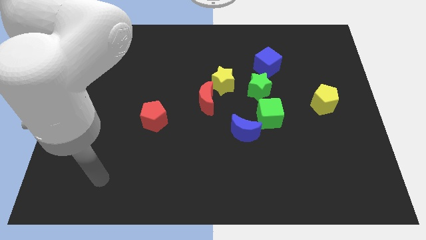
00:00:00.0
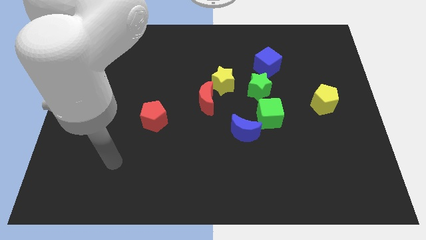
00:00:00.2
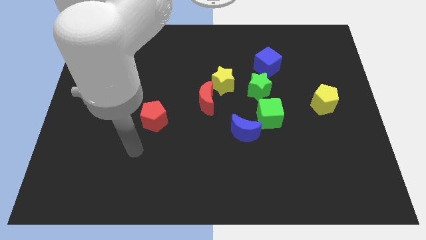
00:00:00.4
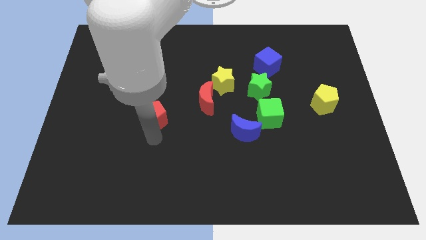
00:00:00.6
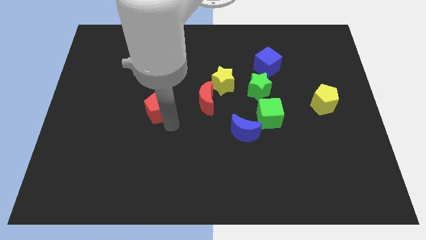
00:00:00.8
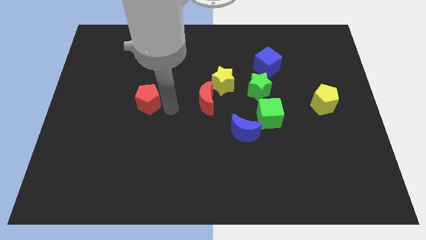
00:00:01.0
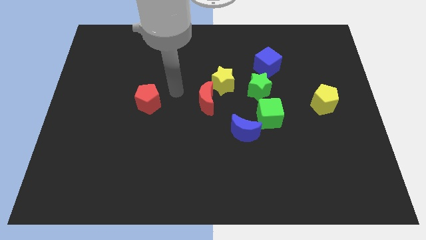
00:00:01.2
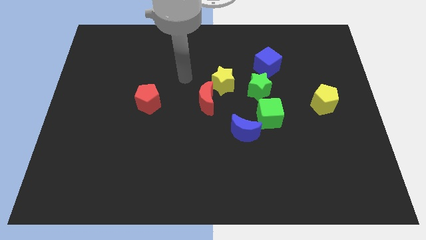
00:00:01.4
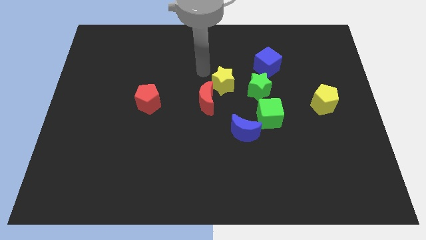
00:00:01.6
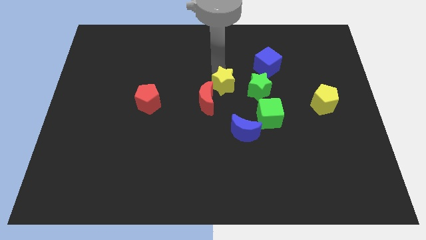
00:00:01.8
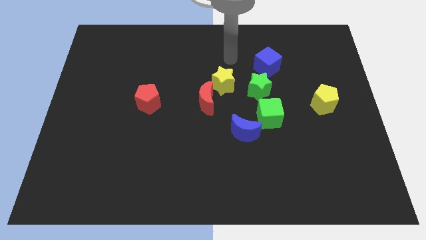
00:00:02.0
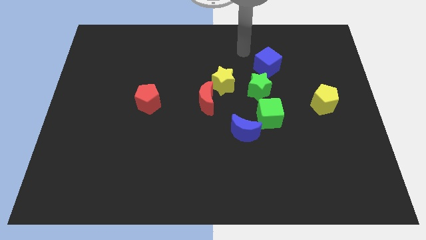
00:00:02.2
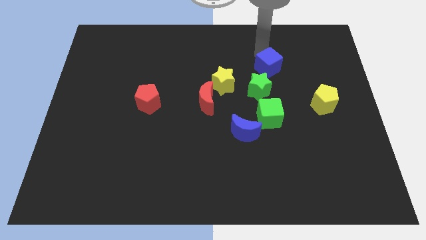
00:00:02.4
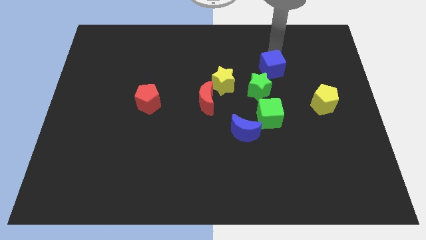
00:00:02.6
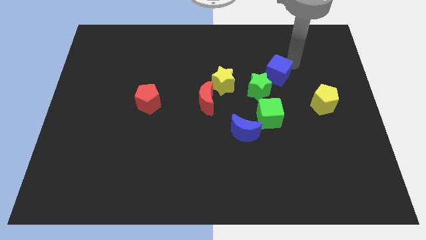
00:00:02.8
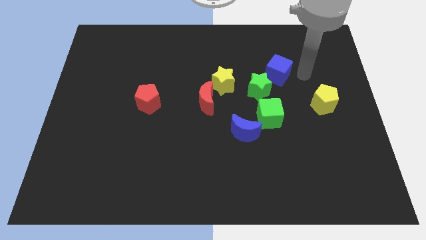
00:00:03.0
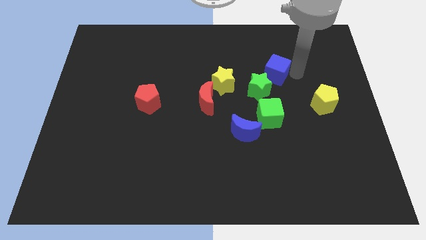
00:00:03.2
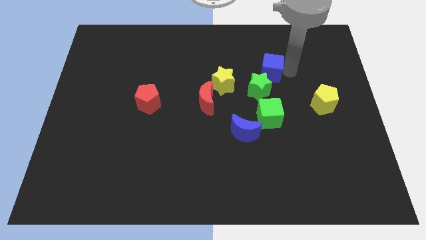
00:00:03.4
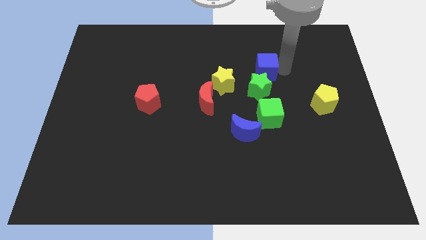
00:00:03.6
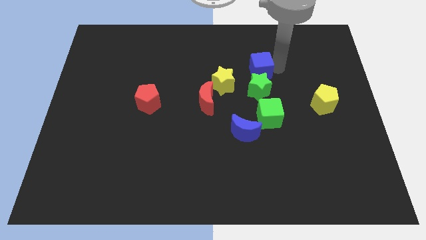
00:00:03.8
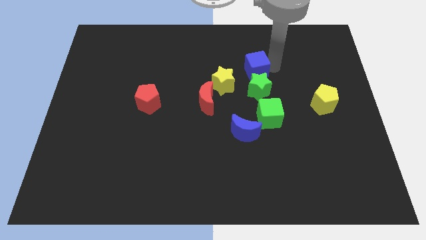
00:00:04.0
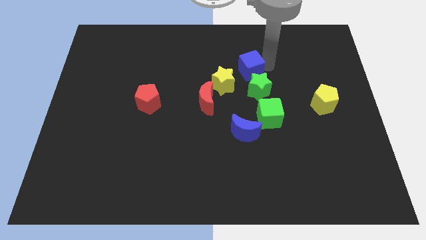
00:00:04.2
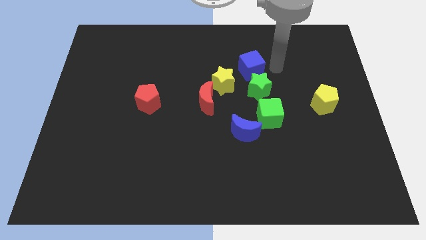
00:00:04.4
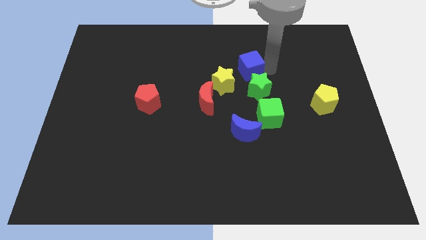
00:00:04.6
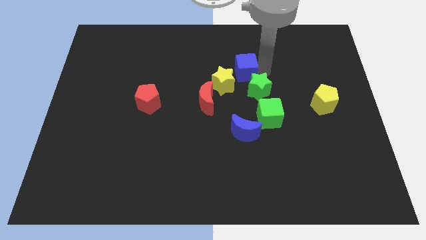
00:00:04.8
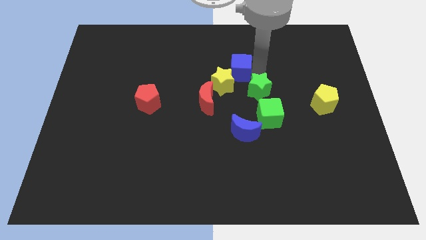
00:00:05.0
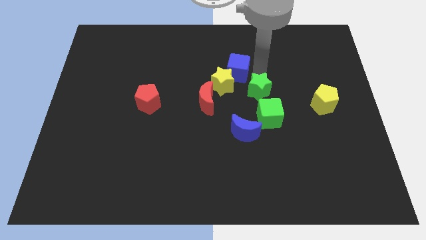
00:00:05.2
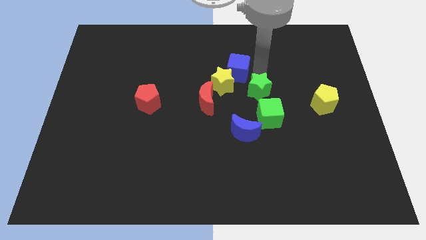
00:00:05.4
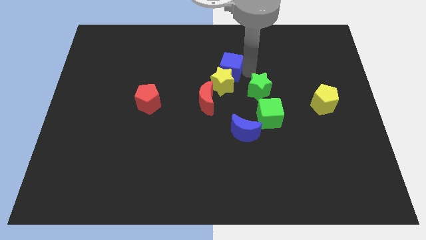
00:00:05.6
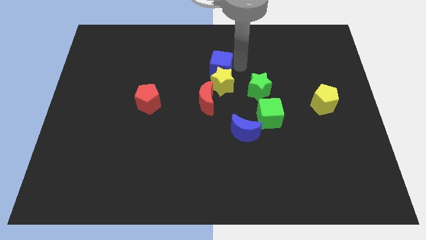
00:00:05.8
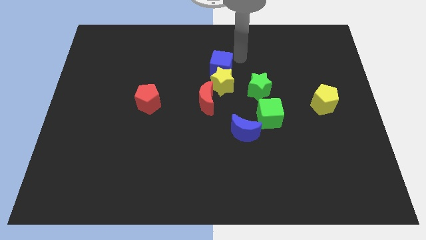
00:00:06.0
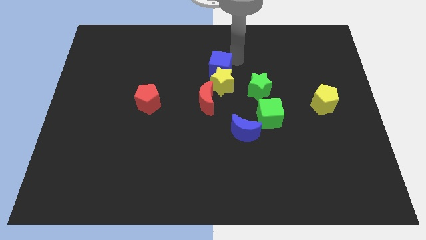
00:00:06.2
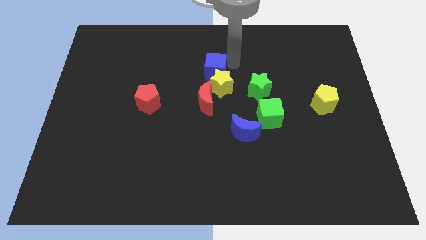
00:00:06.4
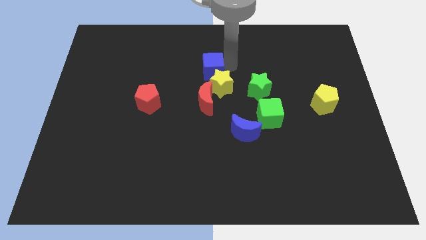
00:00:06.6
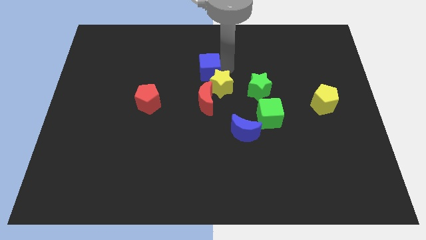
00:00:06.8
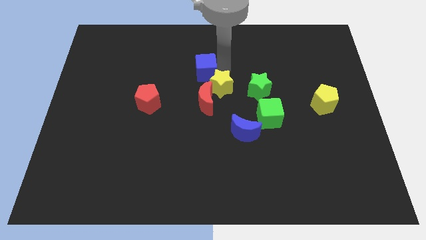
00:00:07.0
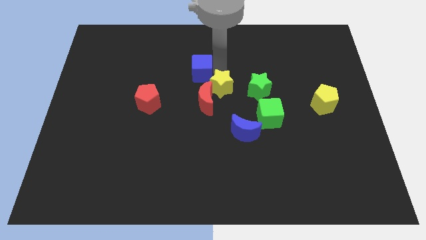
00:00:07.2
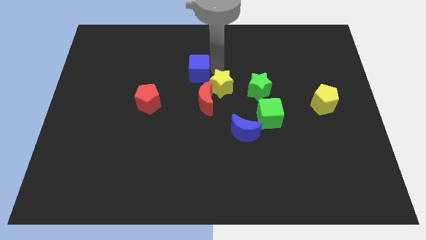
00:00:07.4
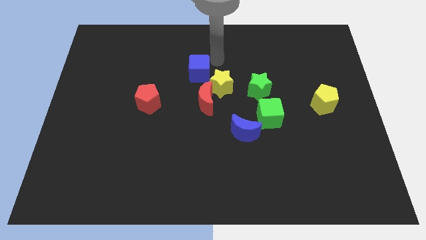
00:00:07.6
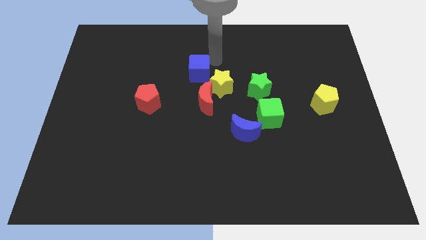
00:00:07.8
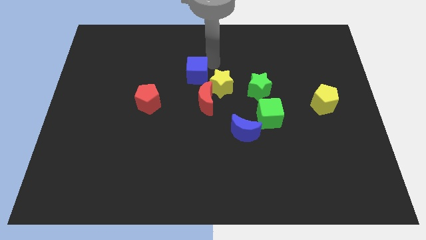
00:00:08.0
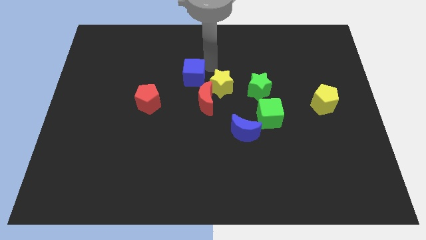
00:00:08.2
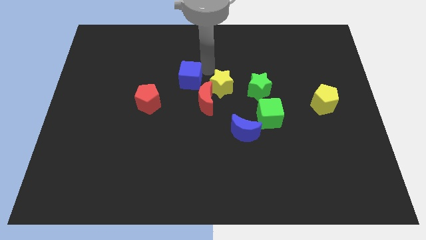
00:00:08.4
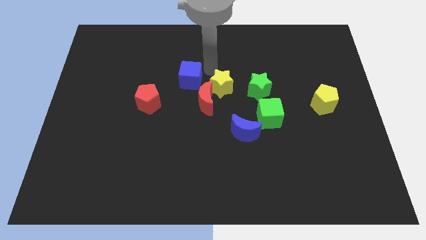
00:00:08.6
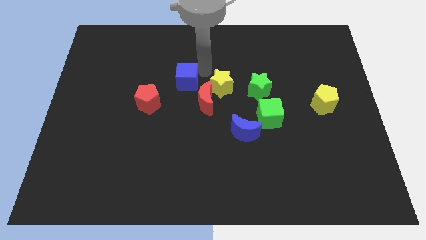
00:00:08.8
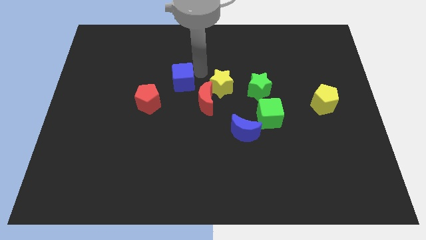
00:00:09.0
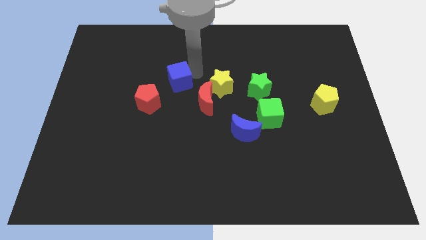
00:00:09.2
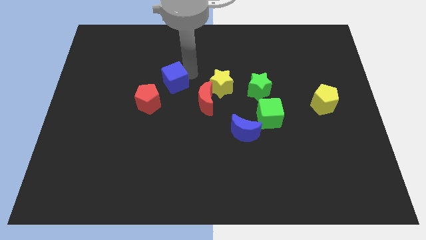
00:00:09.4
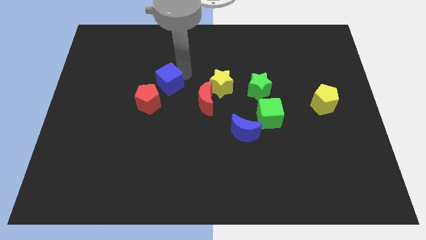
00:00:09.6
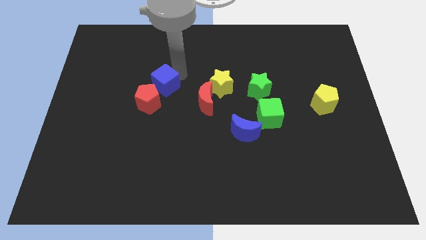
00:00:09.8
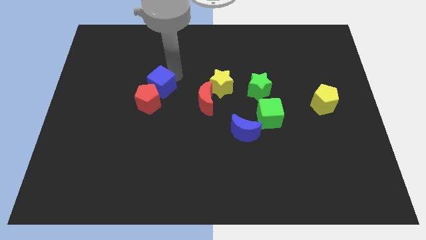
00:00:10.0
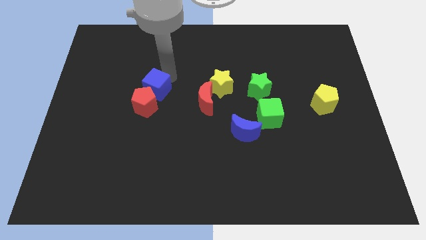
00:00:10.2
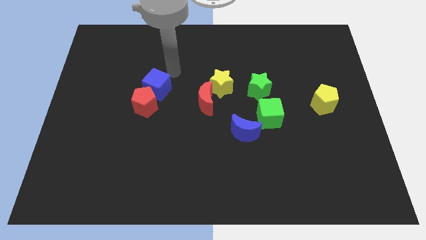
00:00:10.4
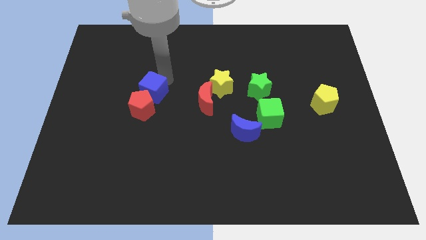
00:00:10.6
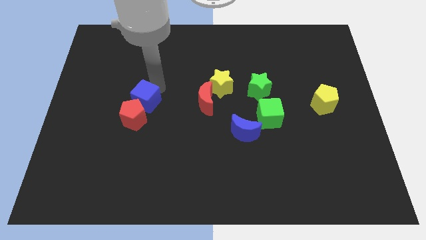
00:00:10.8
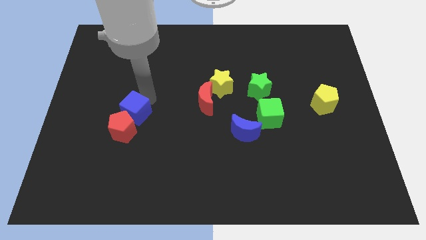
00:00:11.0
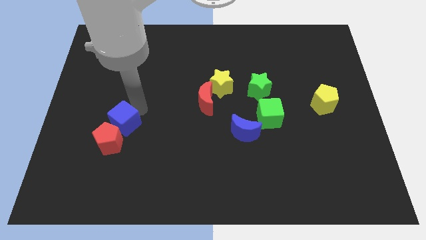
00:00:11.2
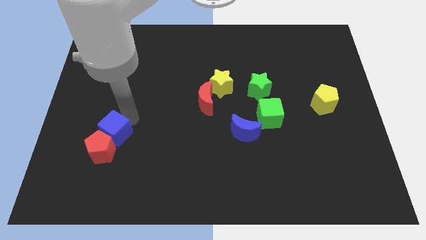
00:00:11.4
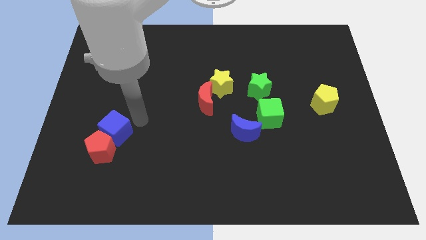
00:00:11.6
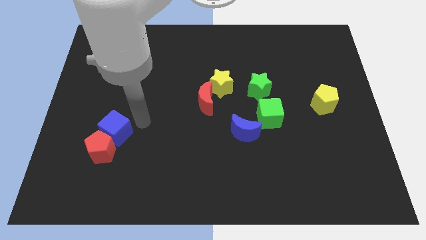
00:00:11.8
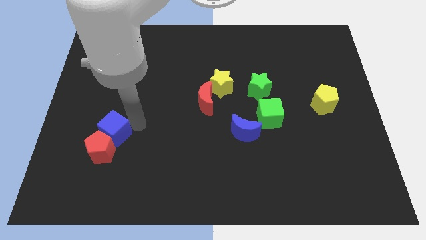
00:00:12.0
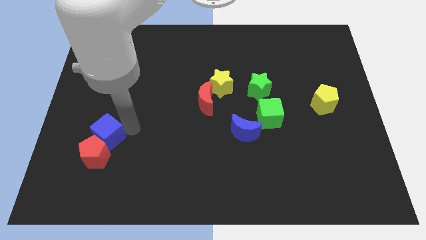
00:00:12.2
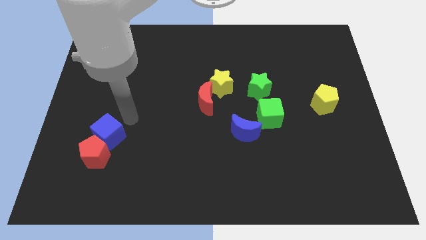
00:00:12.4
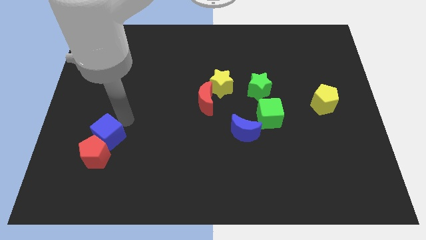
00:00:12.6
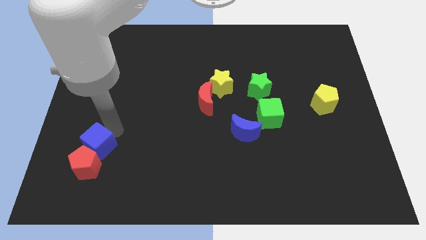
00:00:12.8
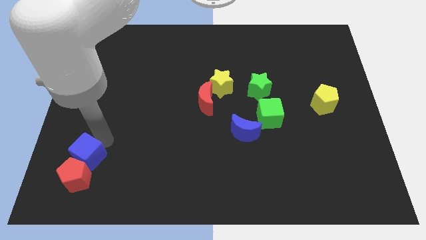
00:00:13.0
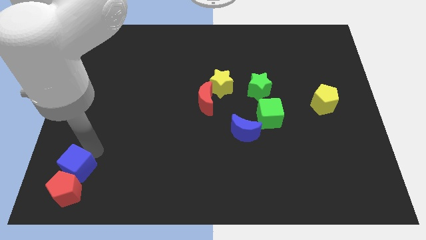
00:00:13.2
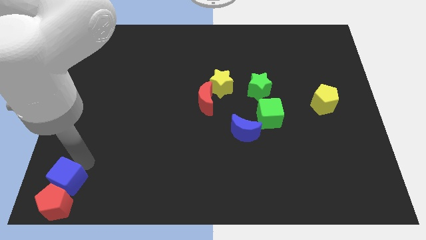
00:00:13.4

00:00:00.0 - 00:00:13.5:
move the blue cube to the lower left corner

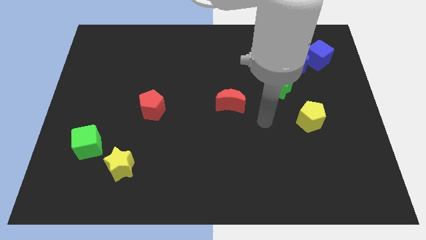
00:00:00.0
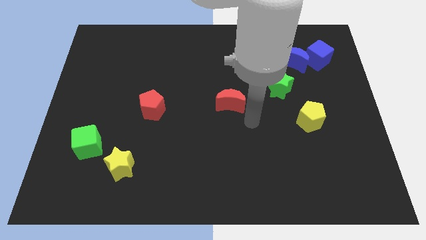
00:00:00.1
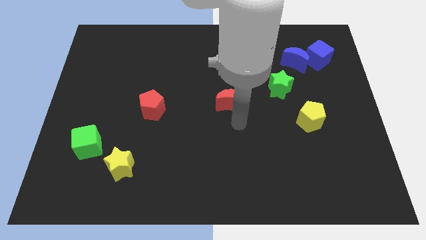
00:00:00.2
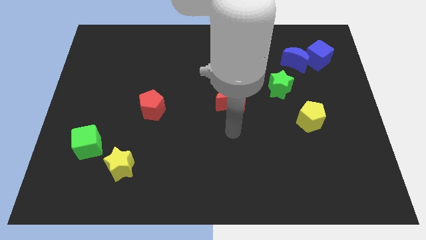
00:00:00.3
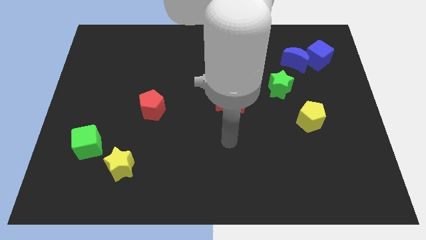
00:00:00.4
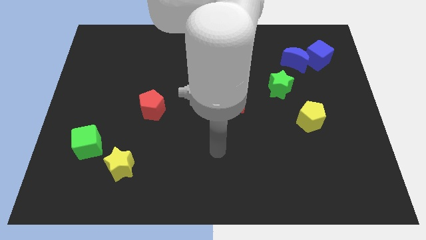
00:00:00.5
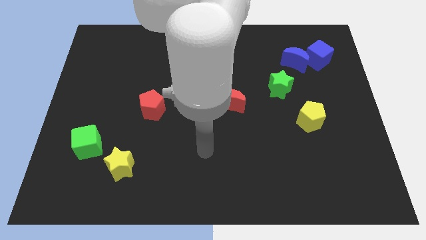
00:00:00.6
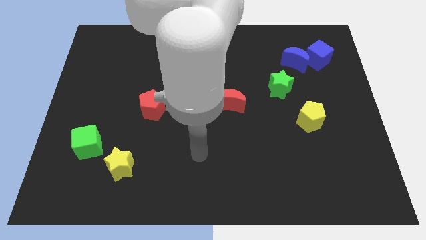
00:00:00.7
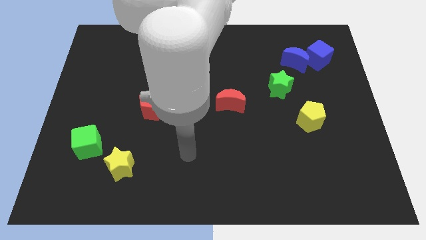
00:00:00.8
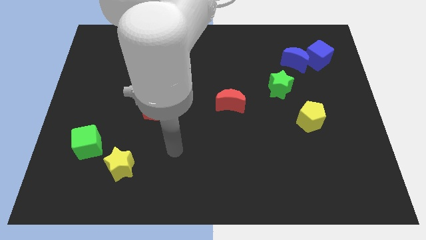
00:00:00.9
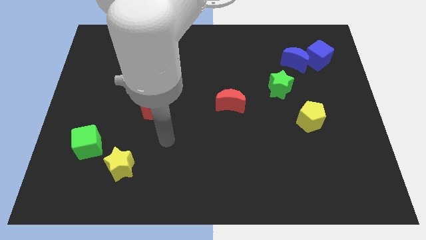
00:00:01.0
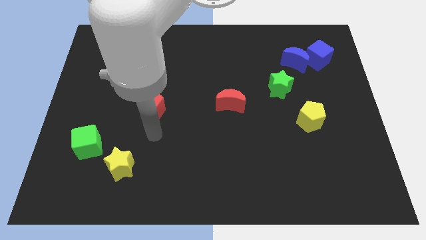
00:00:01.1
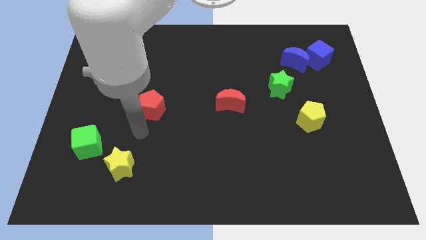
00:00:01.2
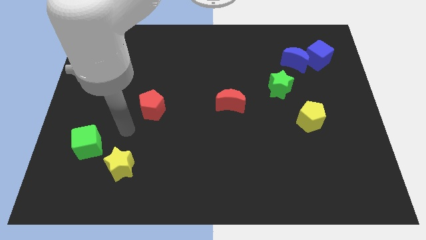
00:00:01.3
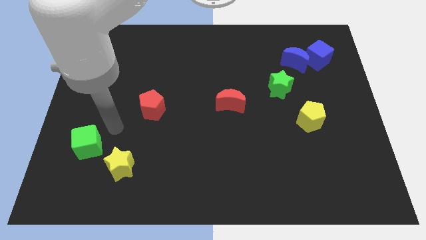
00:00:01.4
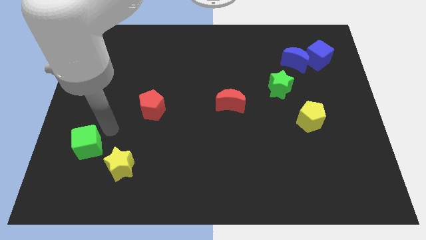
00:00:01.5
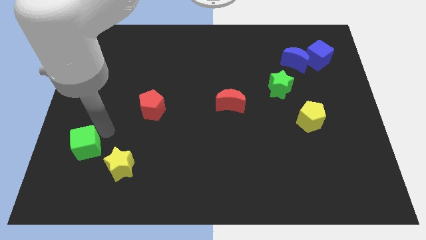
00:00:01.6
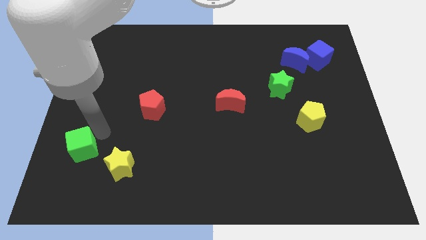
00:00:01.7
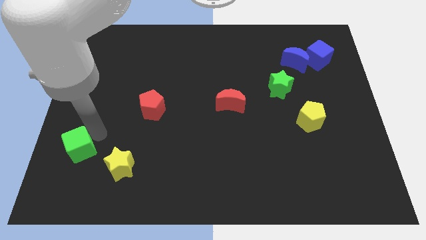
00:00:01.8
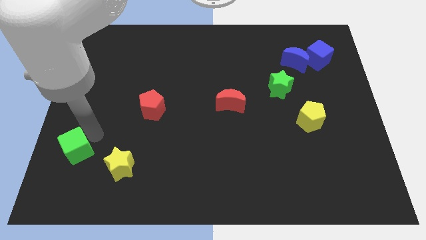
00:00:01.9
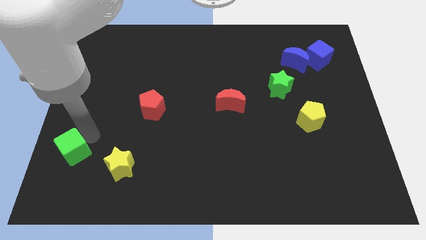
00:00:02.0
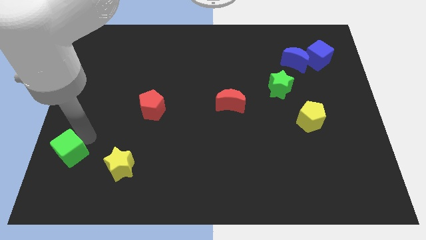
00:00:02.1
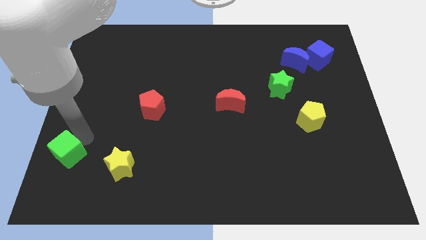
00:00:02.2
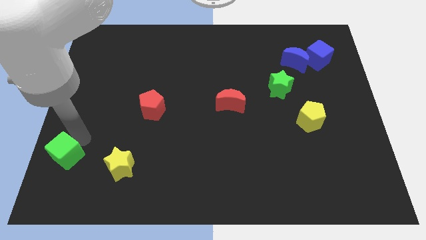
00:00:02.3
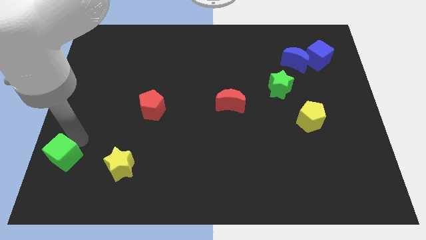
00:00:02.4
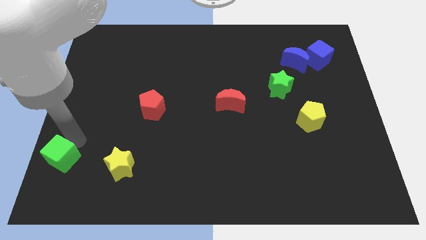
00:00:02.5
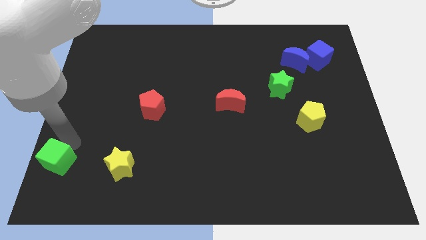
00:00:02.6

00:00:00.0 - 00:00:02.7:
slide the green cube to the bottom left
